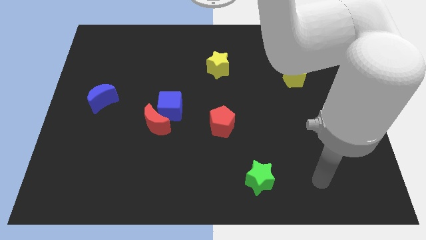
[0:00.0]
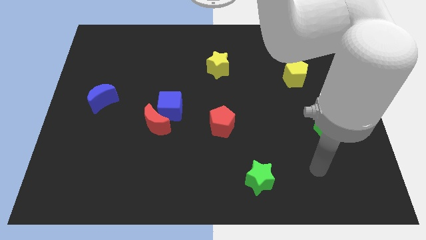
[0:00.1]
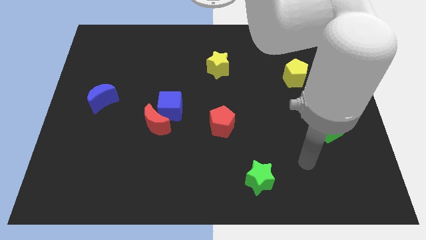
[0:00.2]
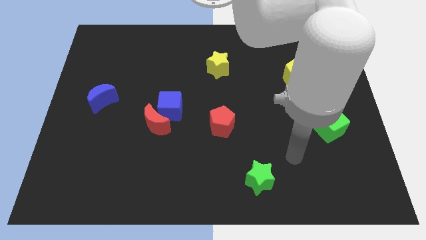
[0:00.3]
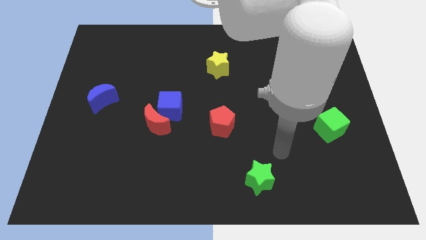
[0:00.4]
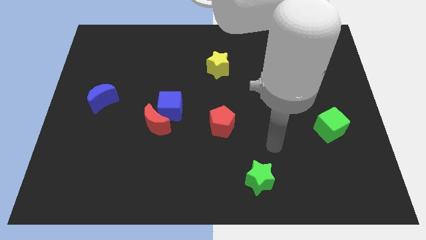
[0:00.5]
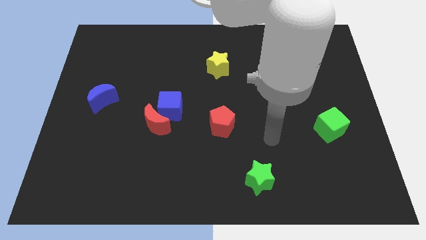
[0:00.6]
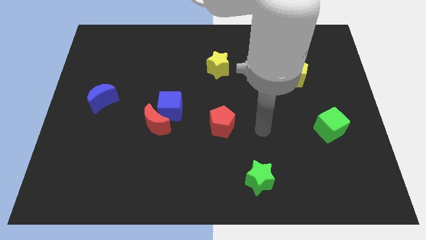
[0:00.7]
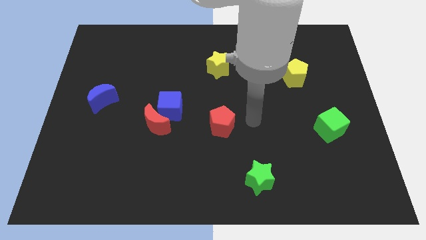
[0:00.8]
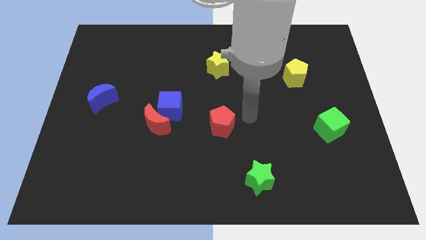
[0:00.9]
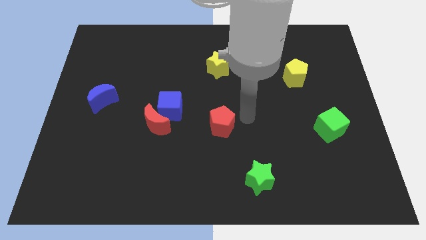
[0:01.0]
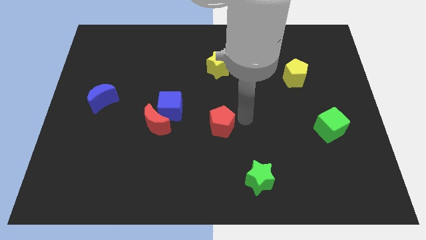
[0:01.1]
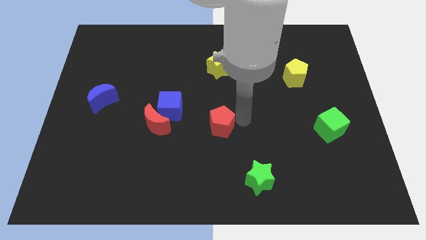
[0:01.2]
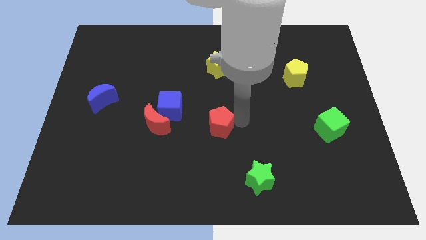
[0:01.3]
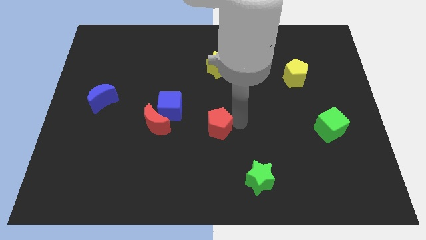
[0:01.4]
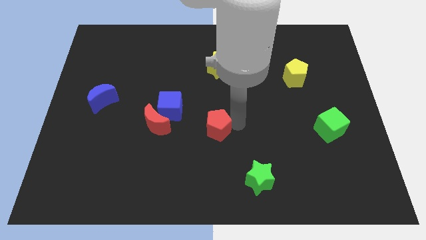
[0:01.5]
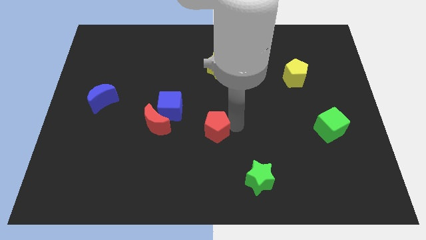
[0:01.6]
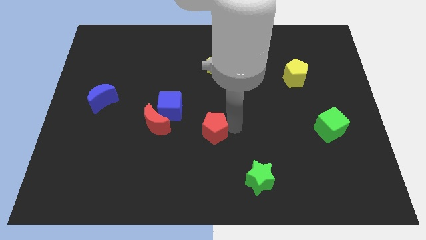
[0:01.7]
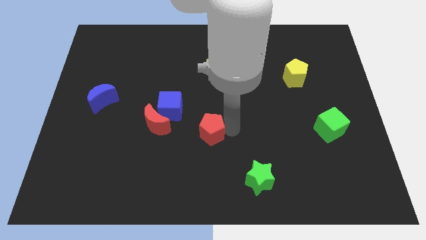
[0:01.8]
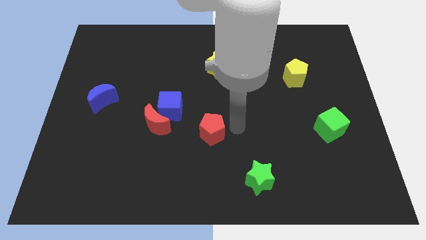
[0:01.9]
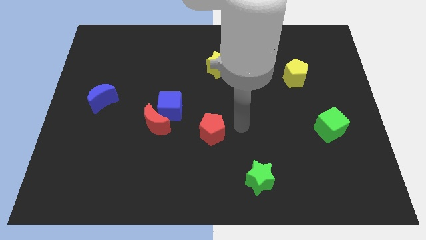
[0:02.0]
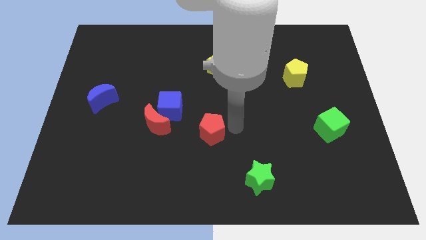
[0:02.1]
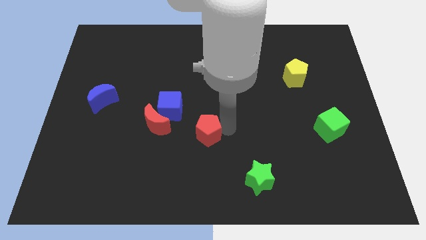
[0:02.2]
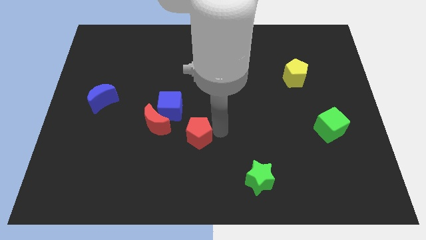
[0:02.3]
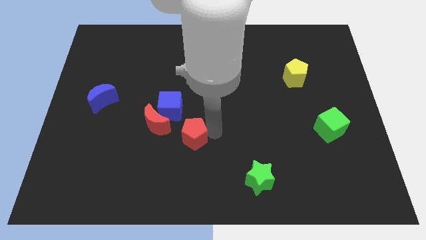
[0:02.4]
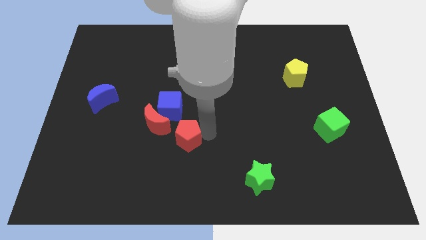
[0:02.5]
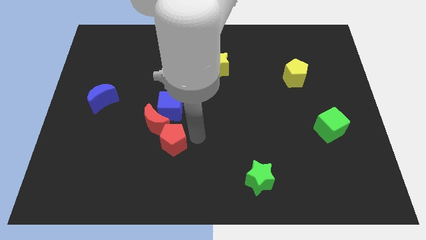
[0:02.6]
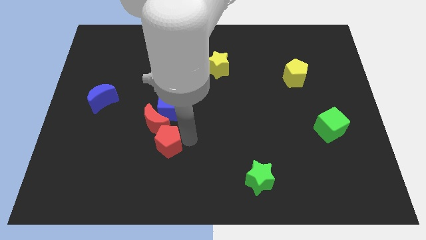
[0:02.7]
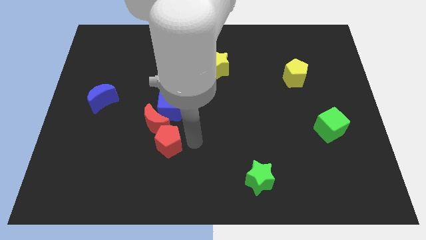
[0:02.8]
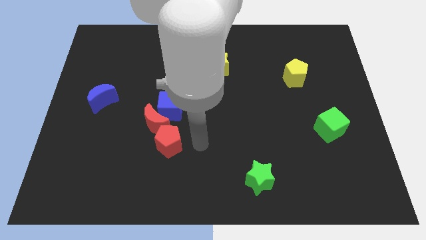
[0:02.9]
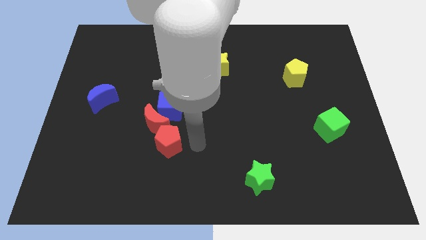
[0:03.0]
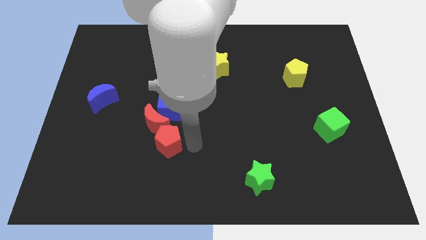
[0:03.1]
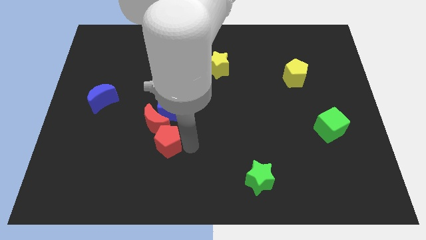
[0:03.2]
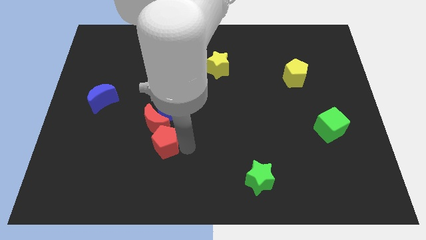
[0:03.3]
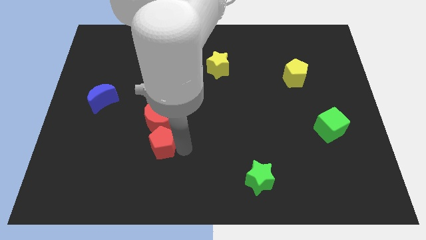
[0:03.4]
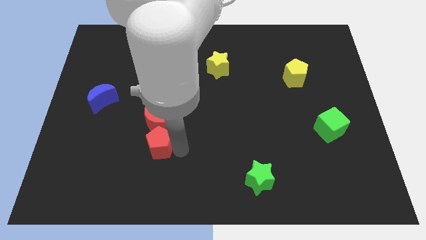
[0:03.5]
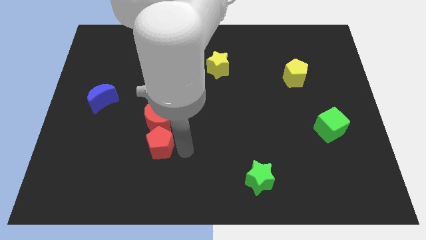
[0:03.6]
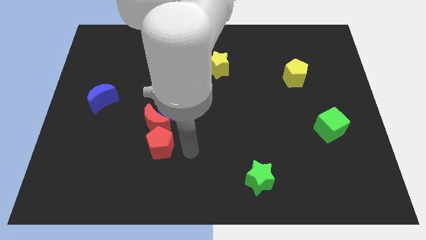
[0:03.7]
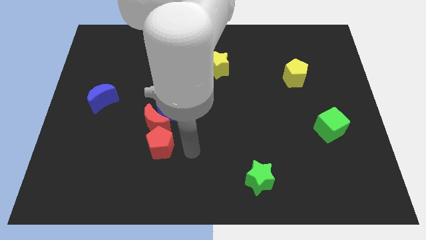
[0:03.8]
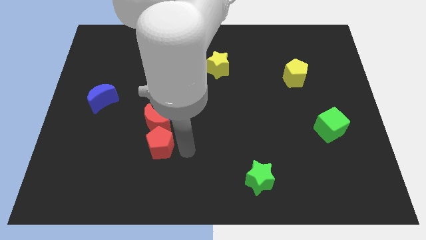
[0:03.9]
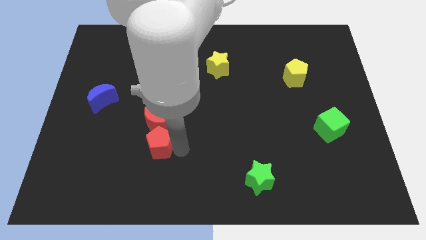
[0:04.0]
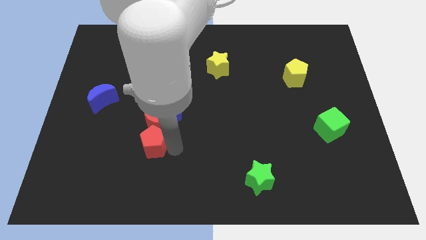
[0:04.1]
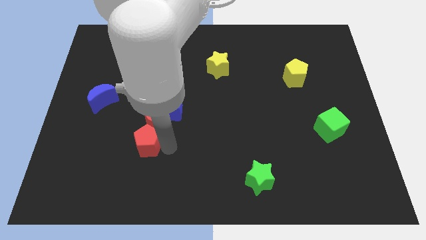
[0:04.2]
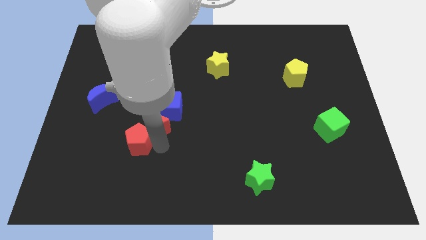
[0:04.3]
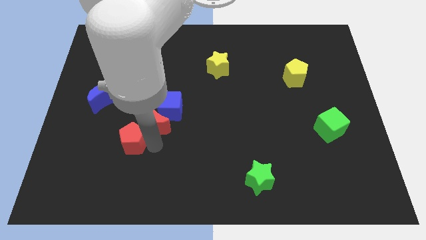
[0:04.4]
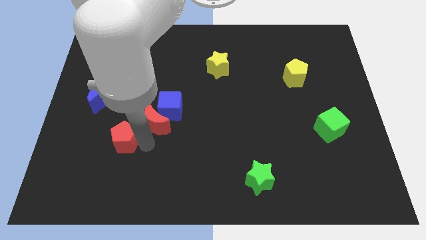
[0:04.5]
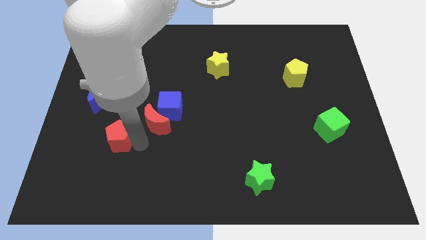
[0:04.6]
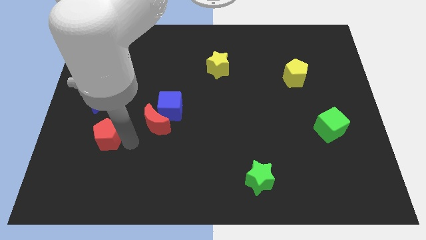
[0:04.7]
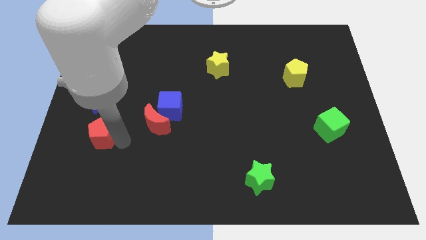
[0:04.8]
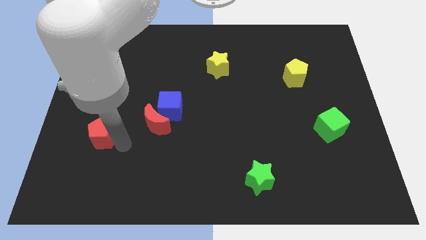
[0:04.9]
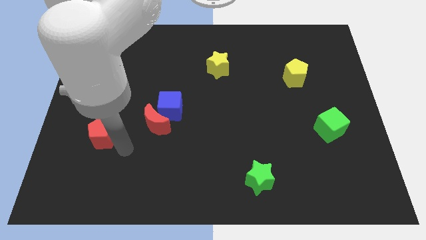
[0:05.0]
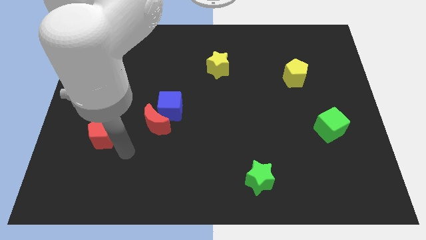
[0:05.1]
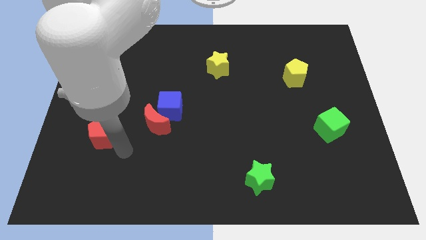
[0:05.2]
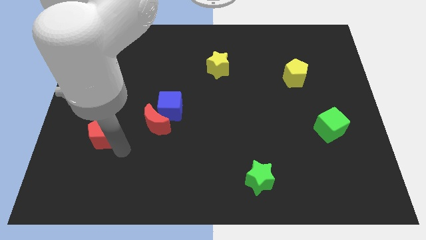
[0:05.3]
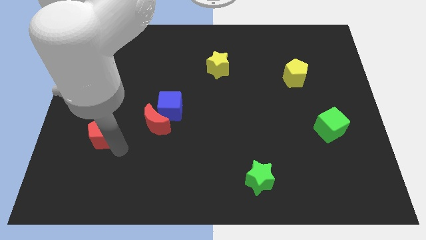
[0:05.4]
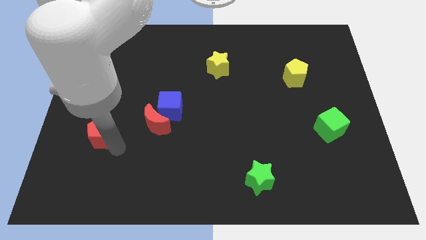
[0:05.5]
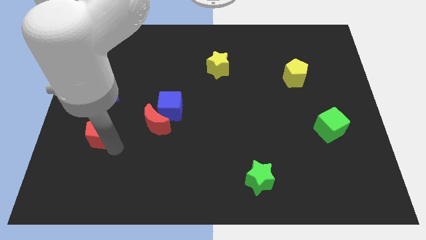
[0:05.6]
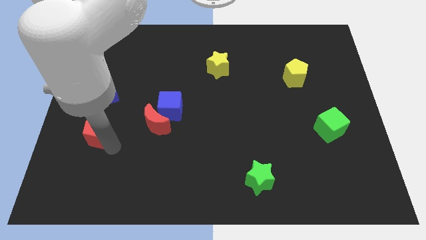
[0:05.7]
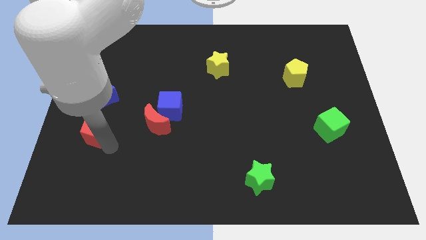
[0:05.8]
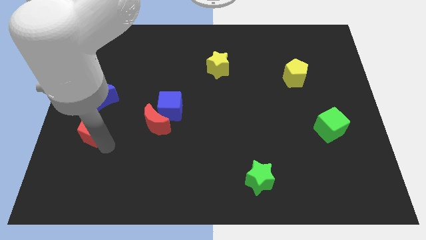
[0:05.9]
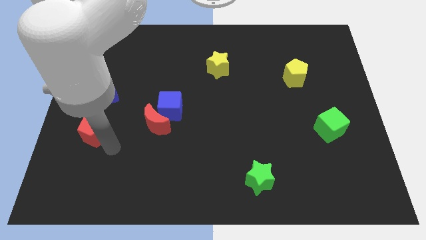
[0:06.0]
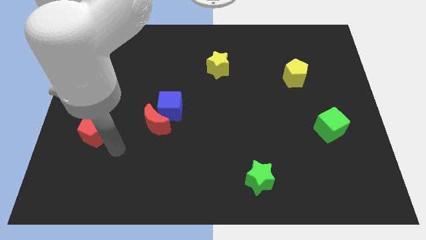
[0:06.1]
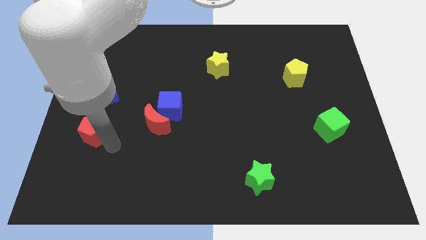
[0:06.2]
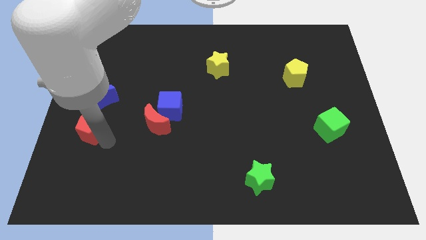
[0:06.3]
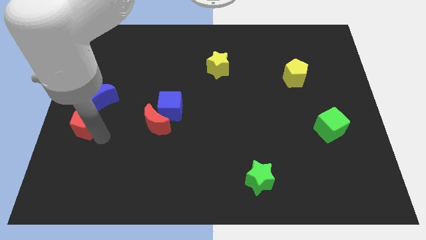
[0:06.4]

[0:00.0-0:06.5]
move the red pentagon to the left side
